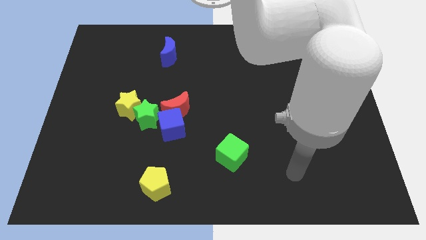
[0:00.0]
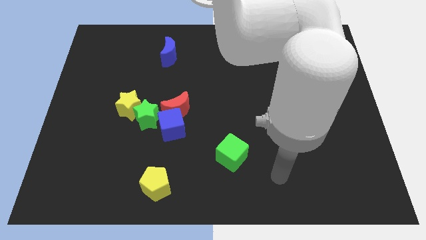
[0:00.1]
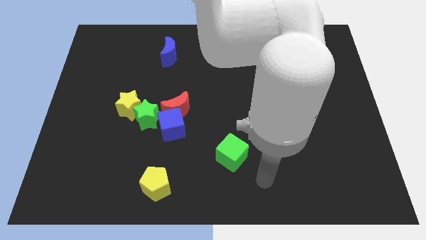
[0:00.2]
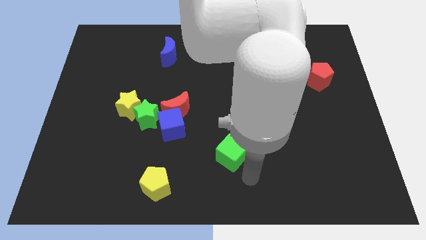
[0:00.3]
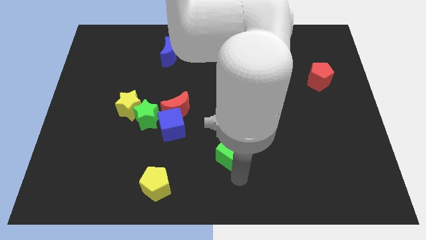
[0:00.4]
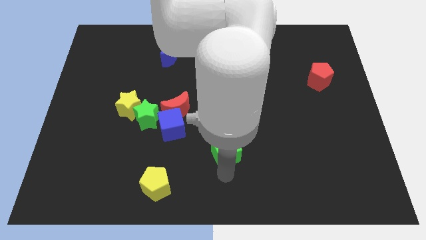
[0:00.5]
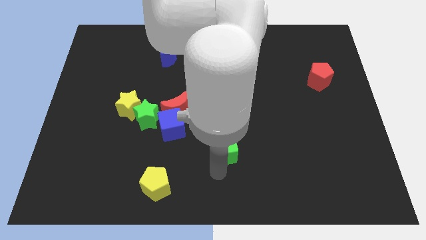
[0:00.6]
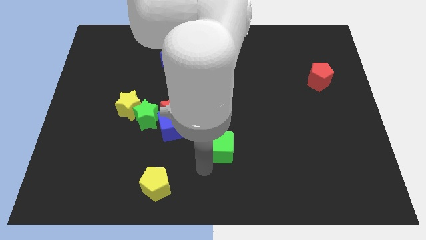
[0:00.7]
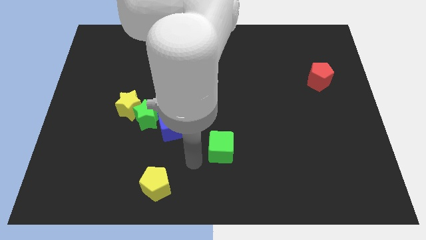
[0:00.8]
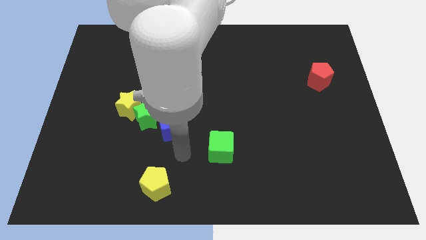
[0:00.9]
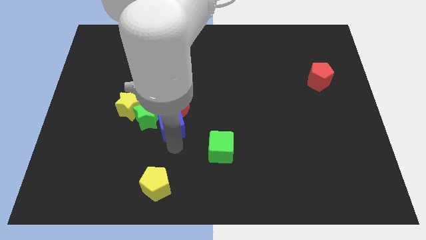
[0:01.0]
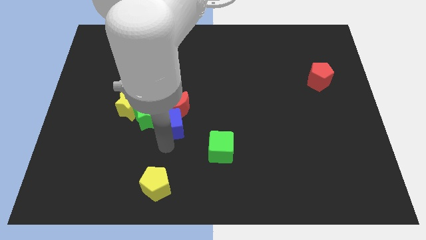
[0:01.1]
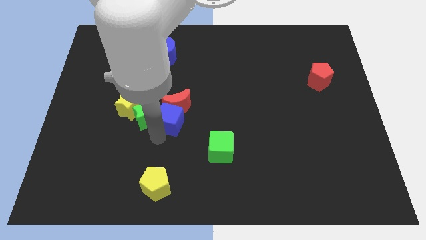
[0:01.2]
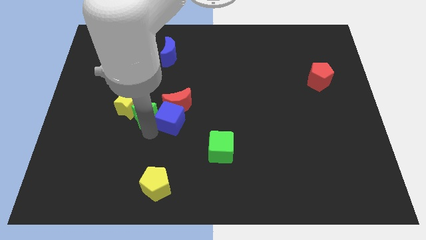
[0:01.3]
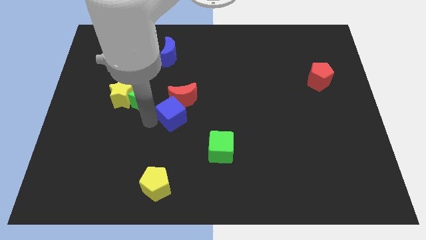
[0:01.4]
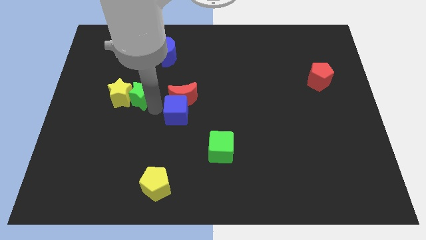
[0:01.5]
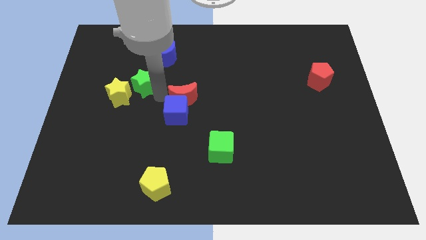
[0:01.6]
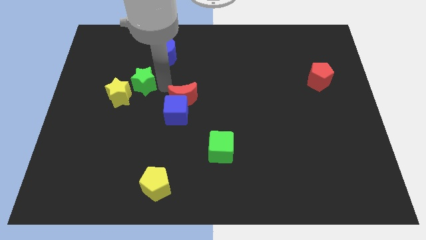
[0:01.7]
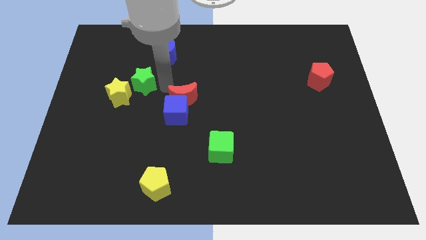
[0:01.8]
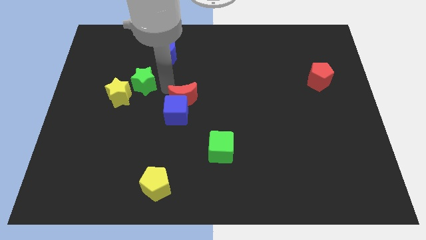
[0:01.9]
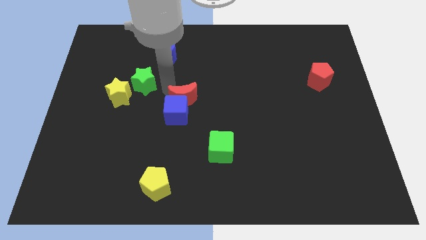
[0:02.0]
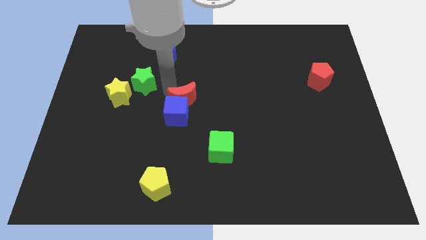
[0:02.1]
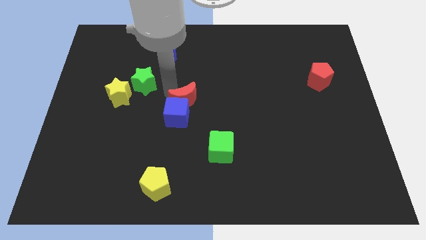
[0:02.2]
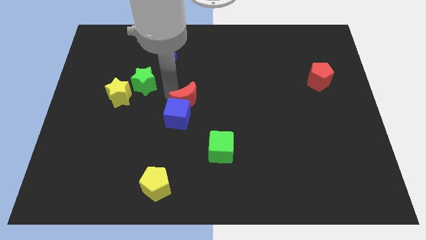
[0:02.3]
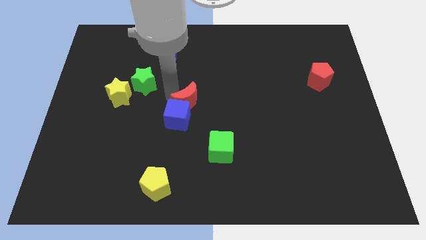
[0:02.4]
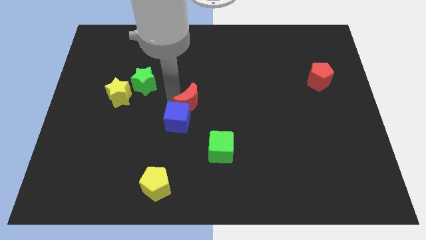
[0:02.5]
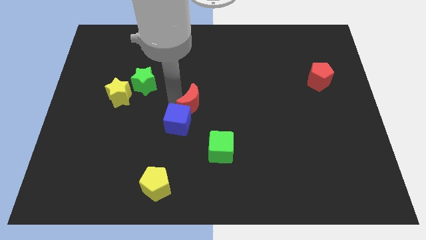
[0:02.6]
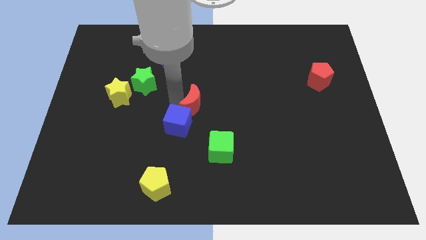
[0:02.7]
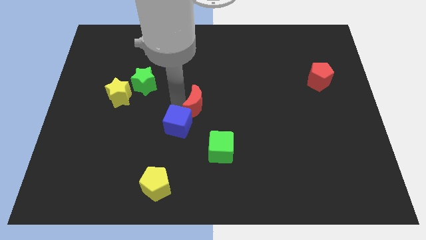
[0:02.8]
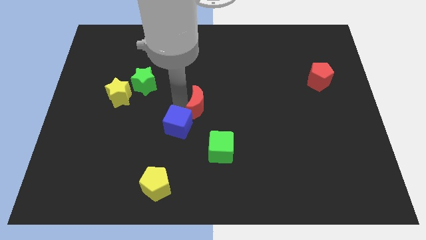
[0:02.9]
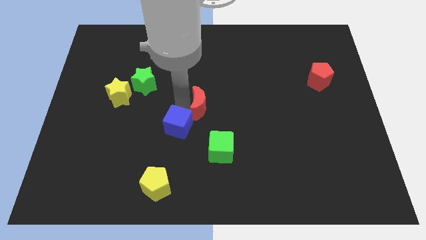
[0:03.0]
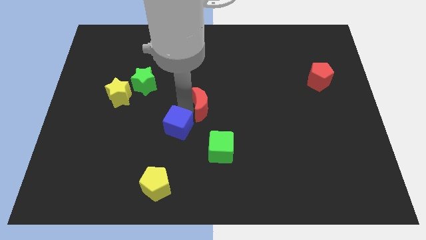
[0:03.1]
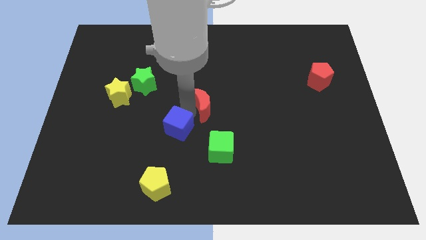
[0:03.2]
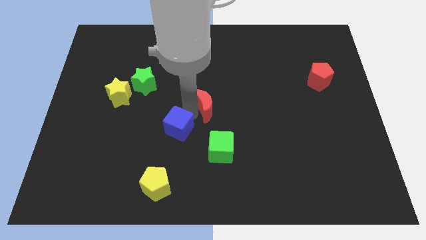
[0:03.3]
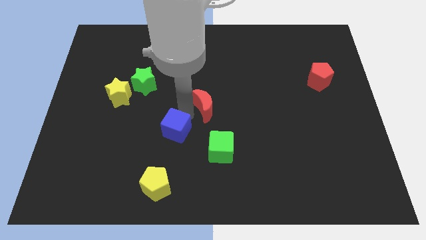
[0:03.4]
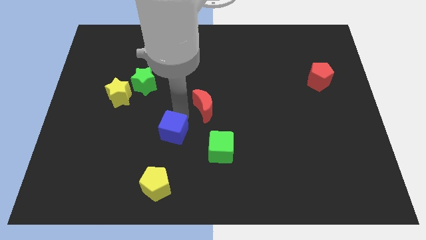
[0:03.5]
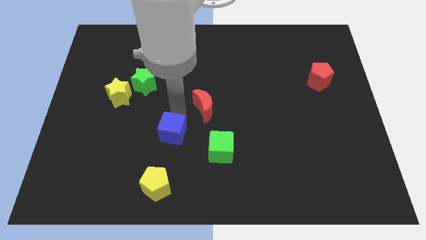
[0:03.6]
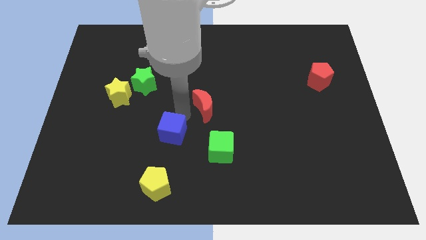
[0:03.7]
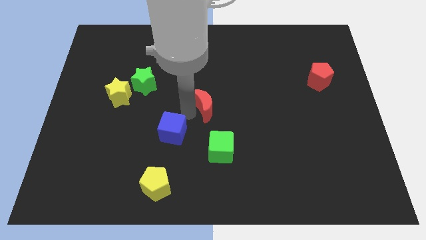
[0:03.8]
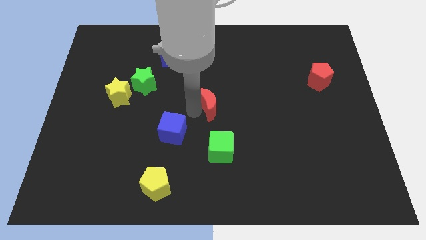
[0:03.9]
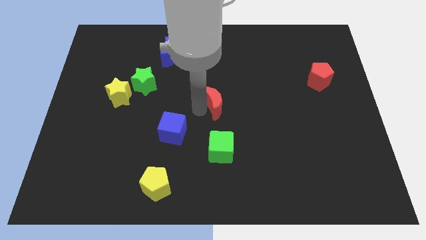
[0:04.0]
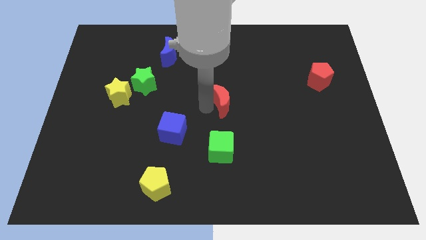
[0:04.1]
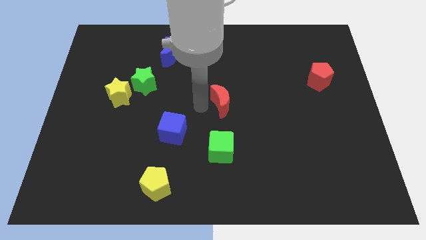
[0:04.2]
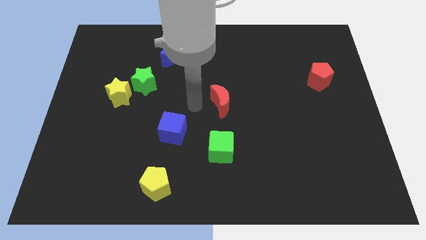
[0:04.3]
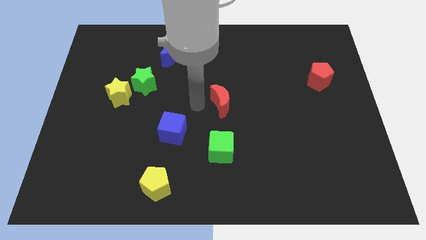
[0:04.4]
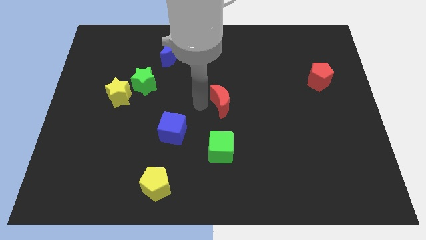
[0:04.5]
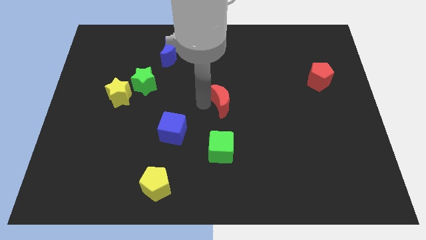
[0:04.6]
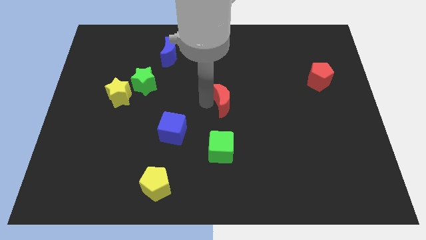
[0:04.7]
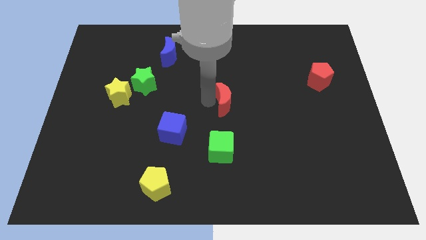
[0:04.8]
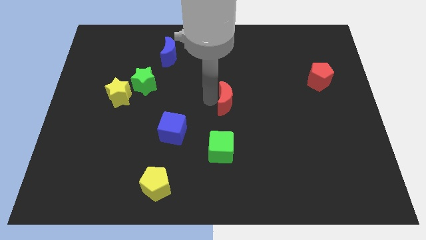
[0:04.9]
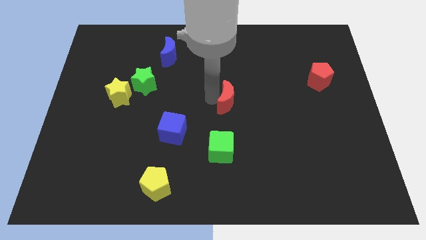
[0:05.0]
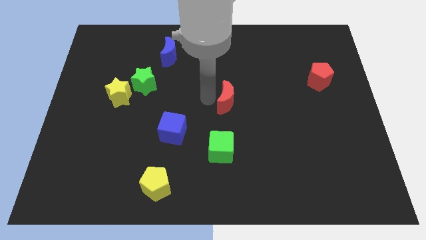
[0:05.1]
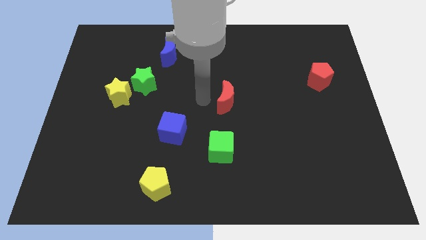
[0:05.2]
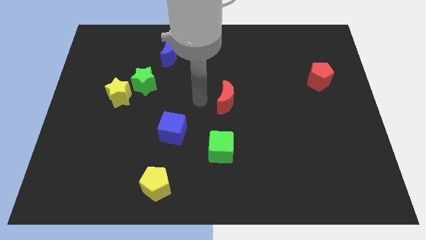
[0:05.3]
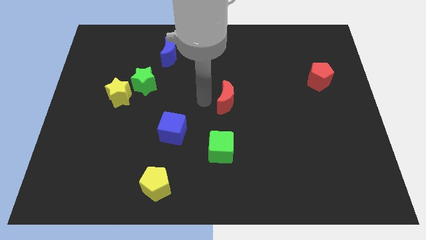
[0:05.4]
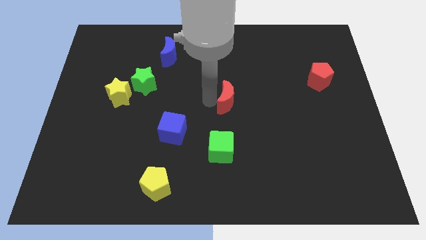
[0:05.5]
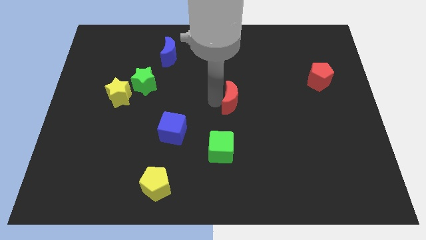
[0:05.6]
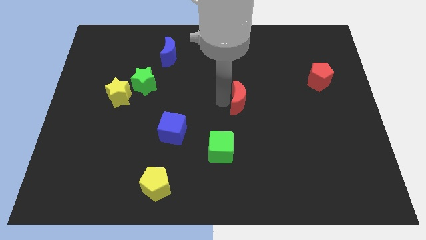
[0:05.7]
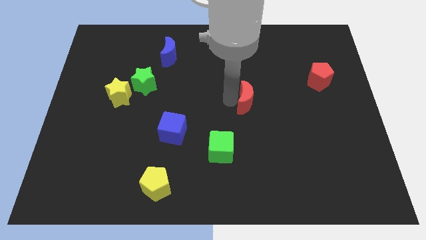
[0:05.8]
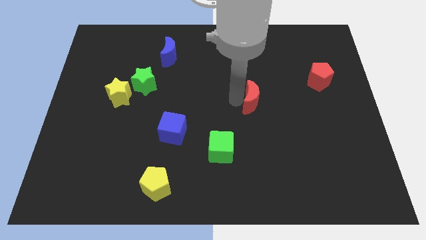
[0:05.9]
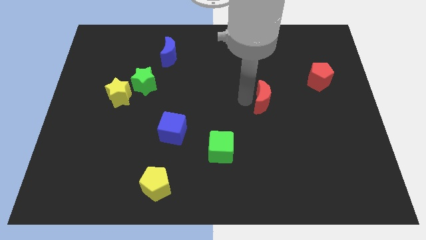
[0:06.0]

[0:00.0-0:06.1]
slide the red moon right

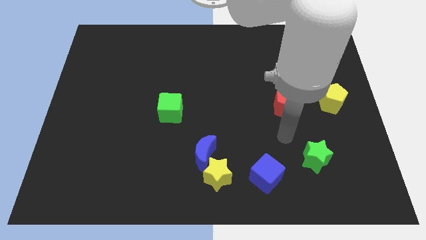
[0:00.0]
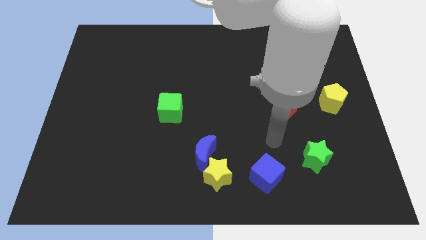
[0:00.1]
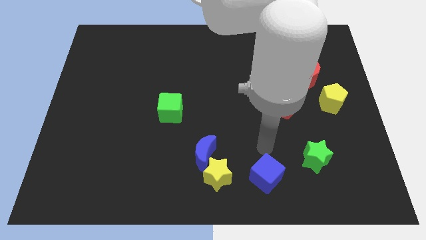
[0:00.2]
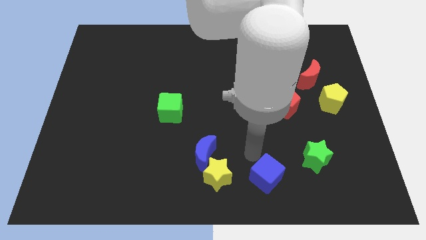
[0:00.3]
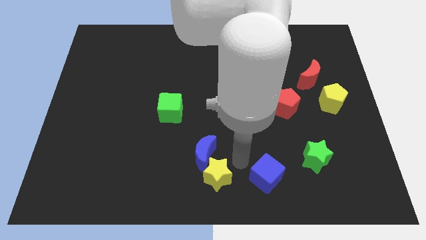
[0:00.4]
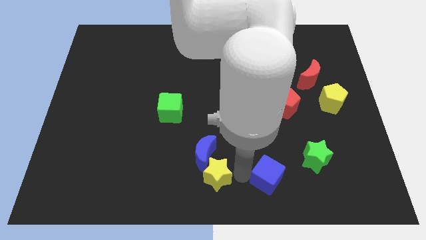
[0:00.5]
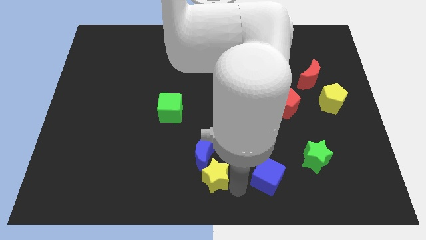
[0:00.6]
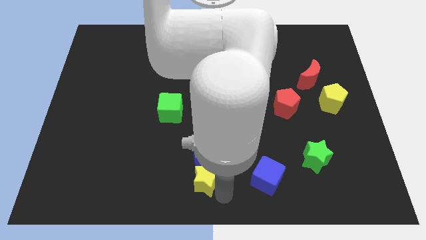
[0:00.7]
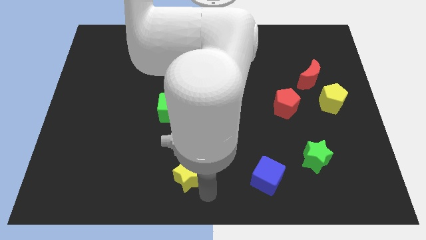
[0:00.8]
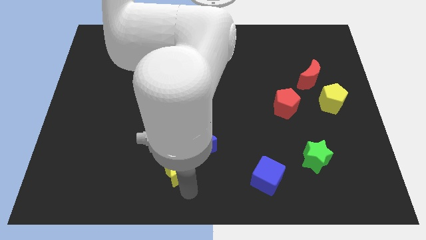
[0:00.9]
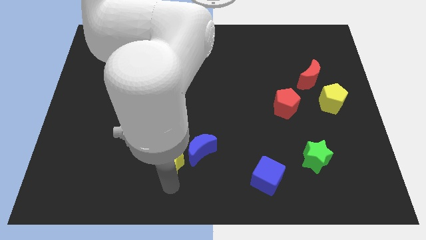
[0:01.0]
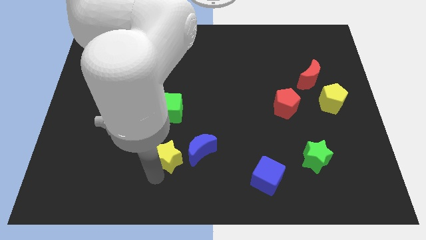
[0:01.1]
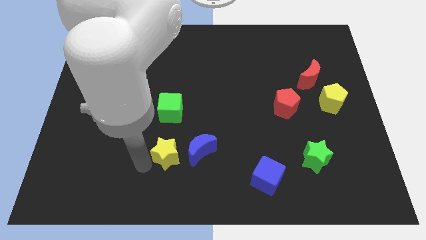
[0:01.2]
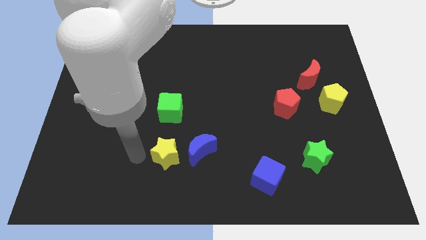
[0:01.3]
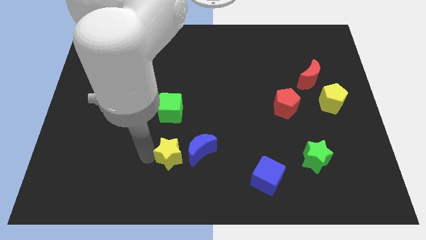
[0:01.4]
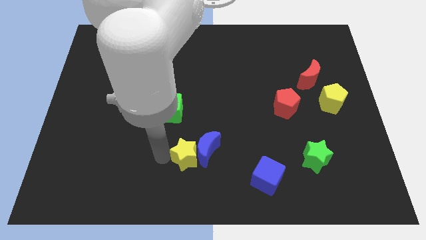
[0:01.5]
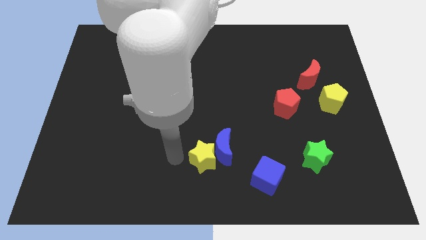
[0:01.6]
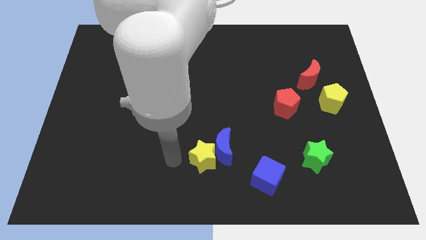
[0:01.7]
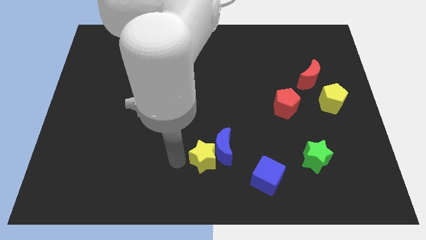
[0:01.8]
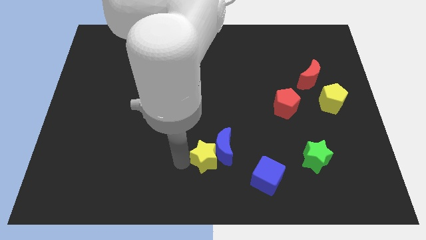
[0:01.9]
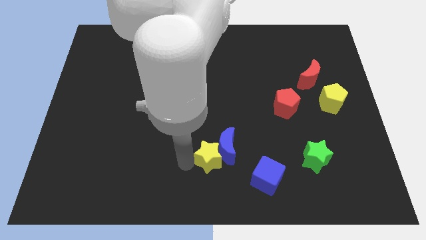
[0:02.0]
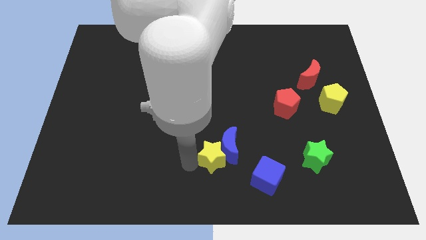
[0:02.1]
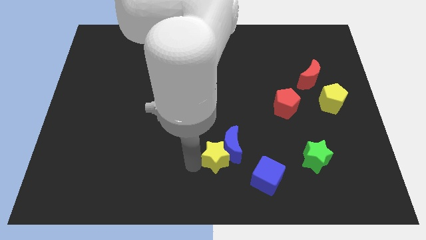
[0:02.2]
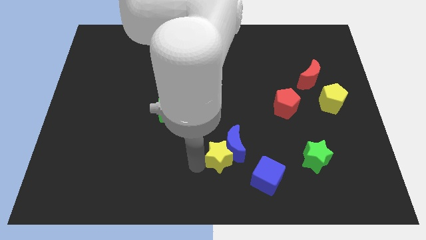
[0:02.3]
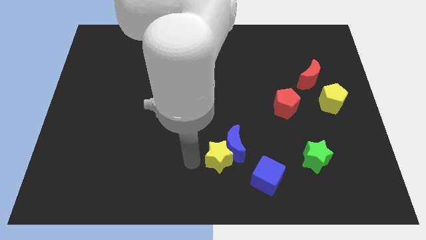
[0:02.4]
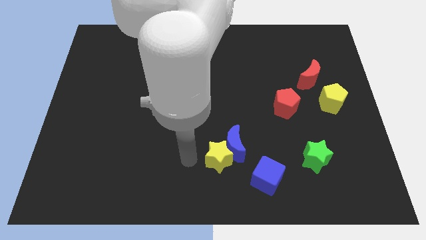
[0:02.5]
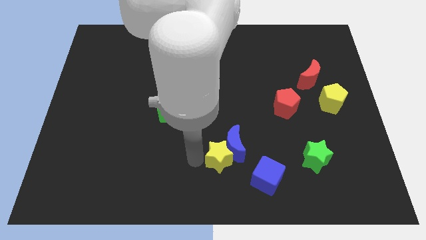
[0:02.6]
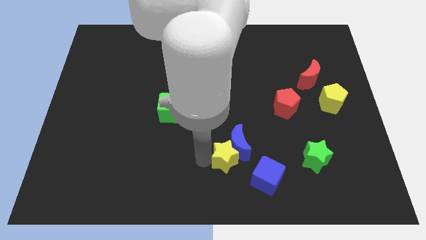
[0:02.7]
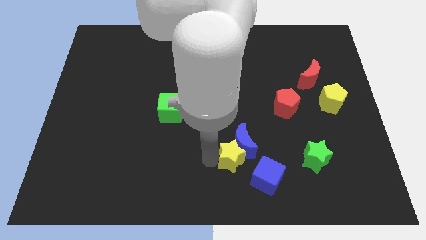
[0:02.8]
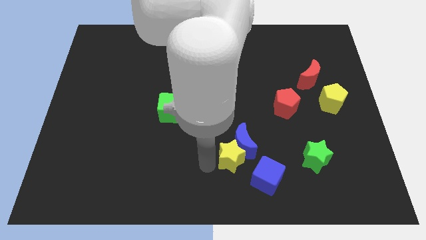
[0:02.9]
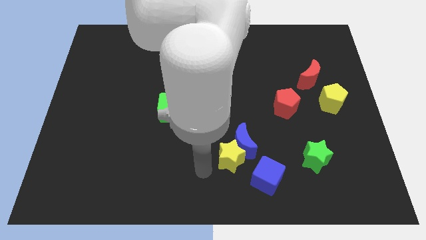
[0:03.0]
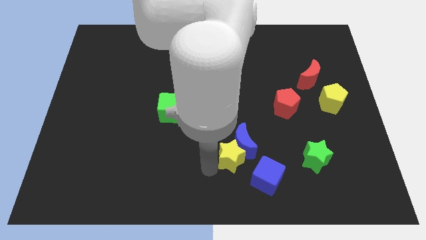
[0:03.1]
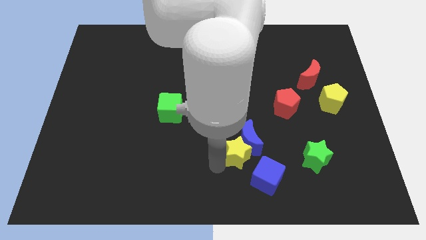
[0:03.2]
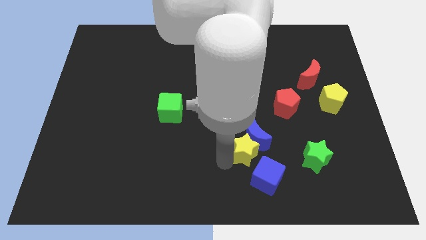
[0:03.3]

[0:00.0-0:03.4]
slide the yellow star a little upwards and then right
